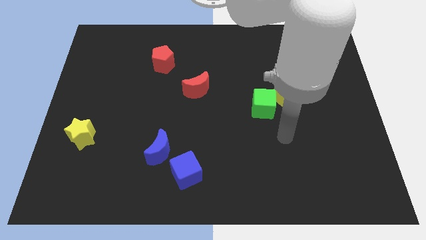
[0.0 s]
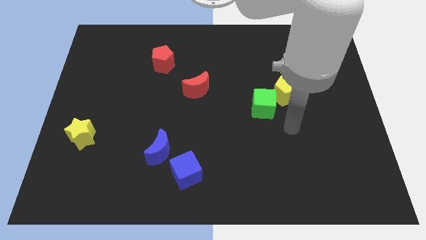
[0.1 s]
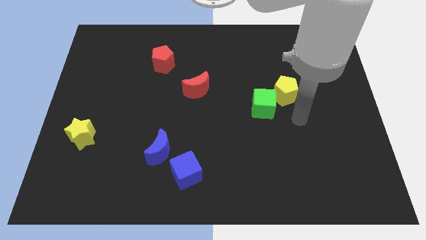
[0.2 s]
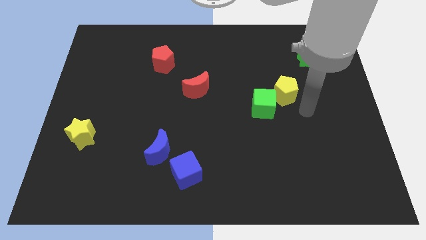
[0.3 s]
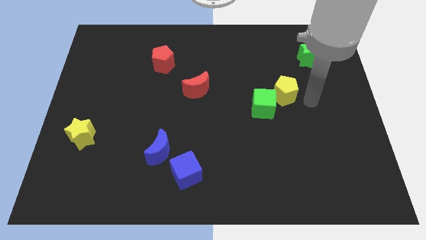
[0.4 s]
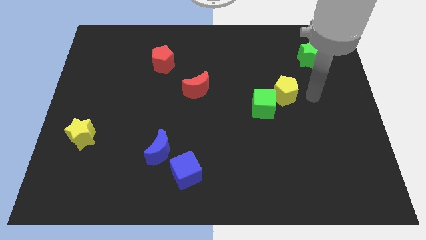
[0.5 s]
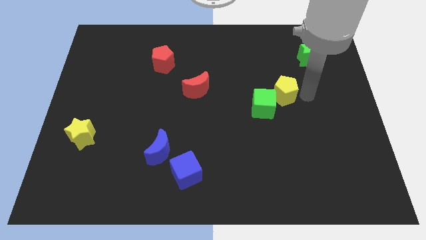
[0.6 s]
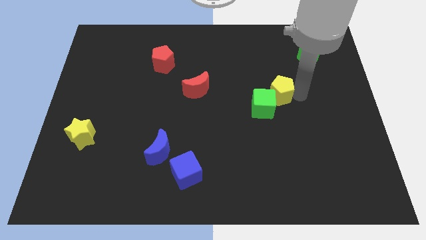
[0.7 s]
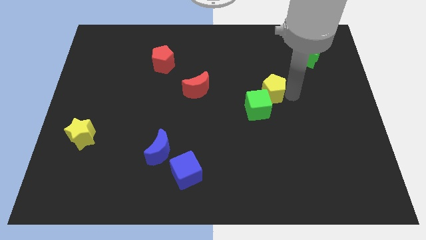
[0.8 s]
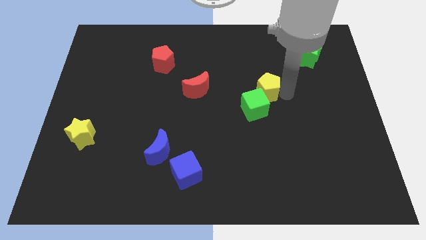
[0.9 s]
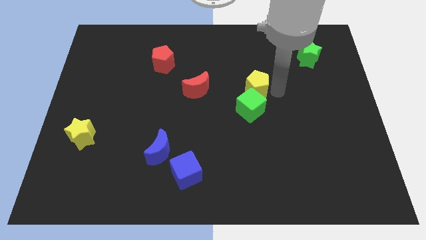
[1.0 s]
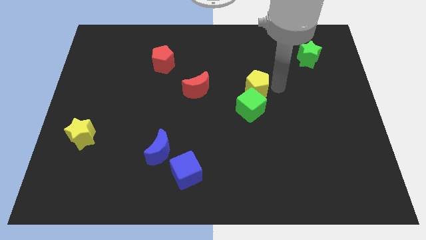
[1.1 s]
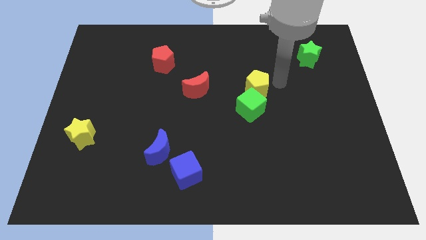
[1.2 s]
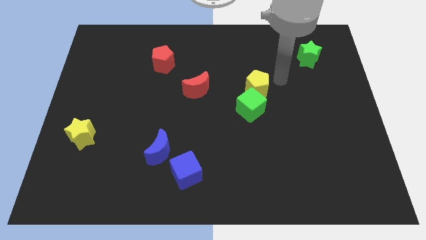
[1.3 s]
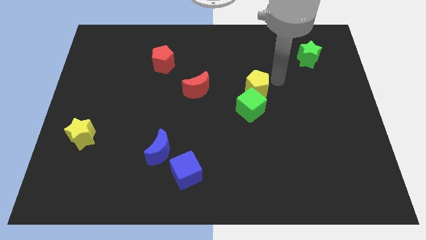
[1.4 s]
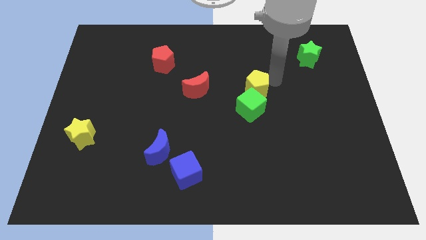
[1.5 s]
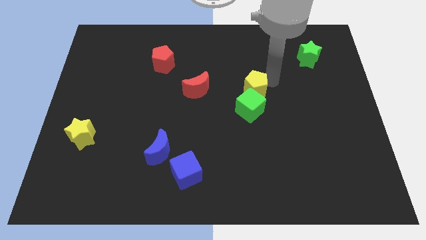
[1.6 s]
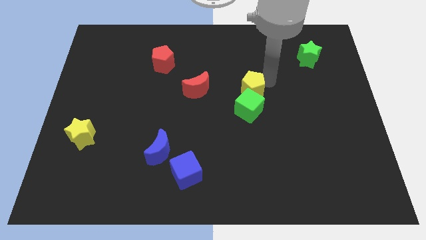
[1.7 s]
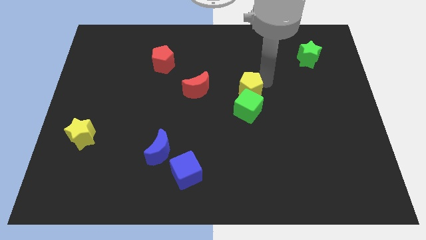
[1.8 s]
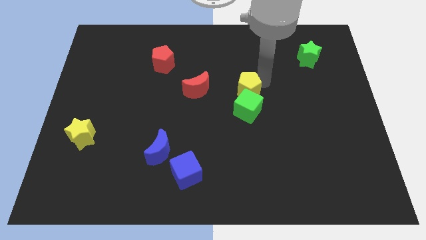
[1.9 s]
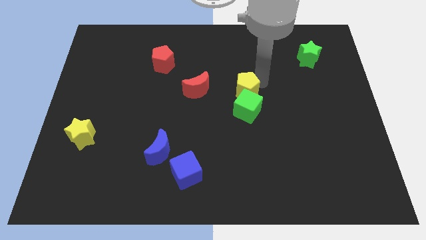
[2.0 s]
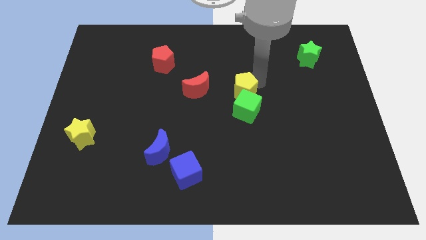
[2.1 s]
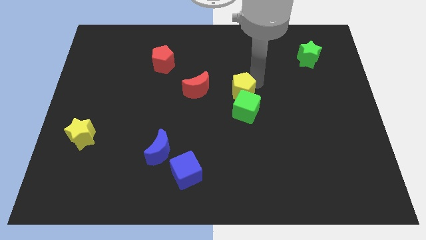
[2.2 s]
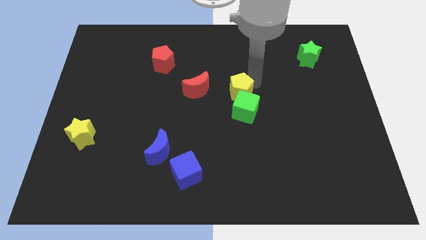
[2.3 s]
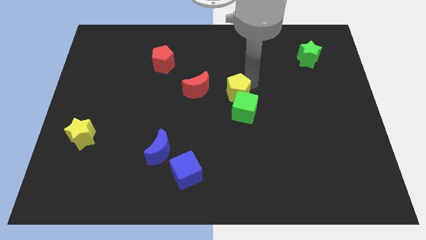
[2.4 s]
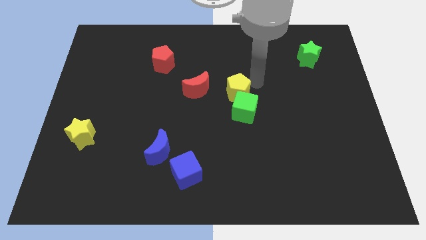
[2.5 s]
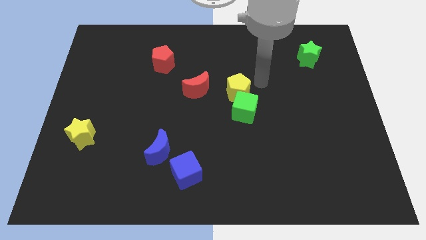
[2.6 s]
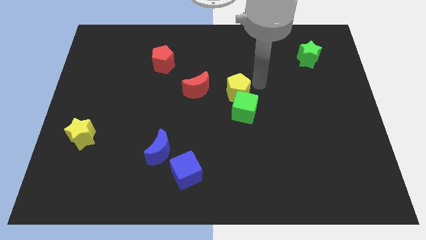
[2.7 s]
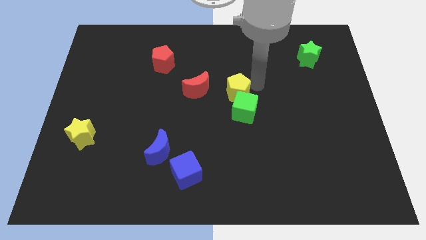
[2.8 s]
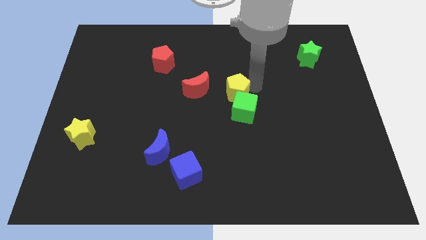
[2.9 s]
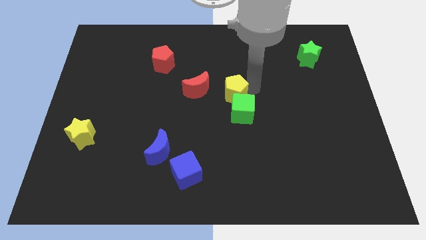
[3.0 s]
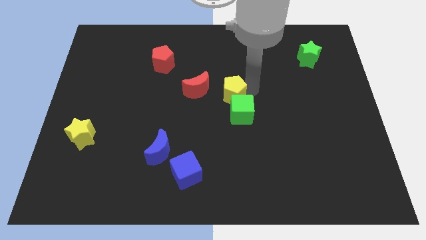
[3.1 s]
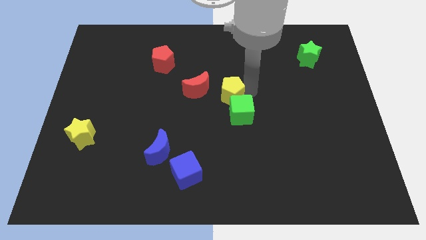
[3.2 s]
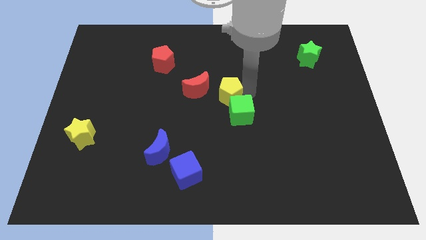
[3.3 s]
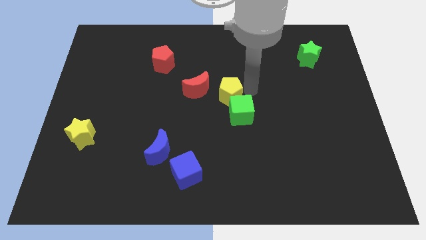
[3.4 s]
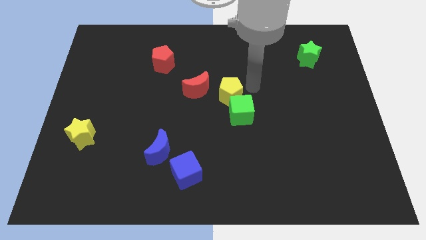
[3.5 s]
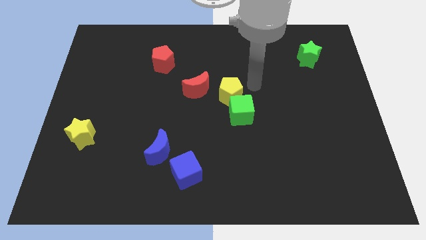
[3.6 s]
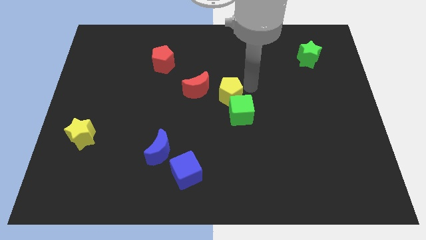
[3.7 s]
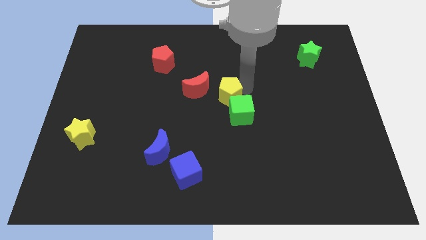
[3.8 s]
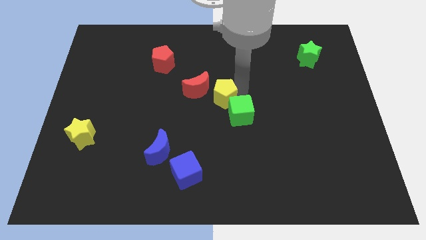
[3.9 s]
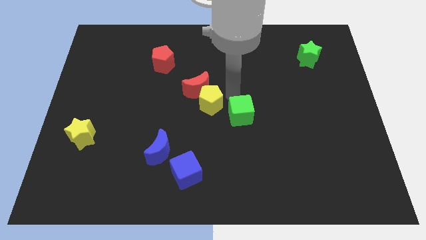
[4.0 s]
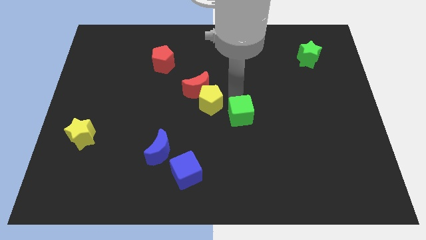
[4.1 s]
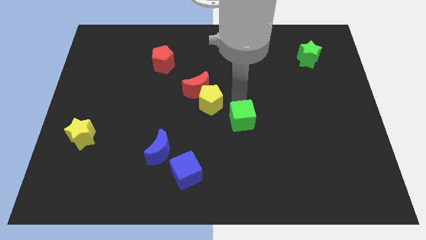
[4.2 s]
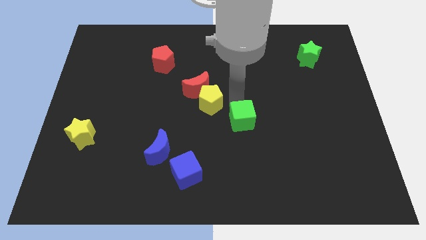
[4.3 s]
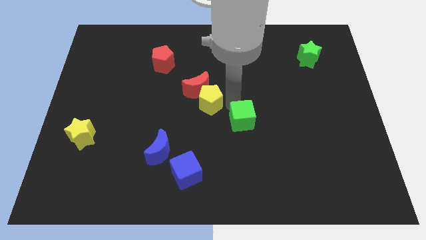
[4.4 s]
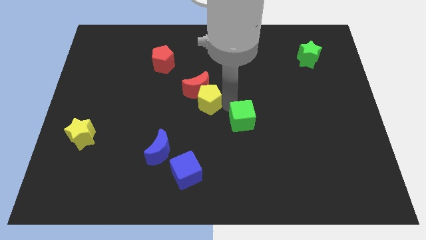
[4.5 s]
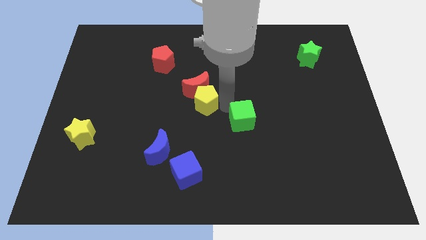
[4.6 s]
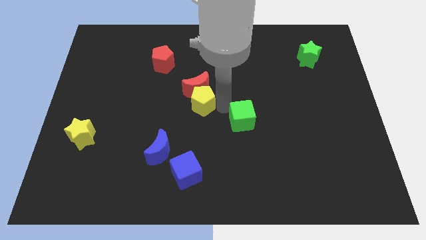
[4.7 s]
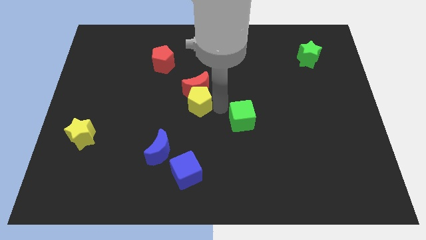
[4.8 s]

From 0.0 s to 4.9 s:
move the yellow pentagon left

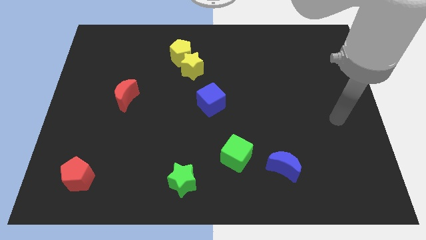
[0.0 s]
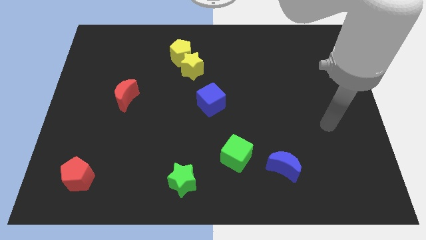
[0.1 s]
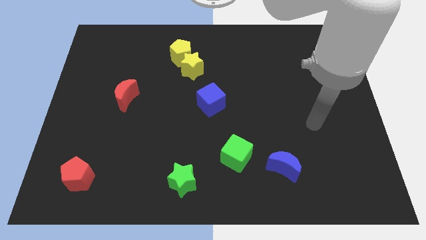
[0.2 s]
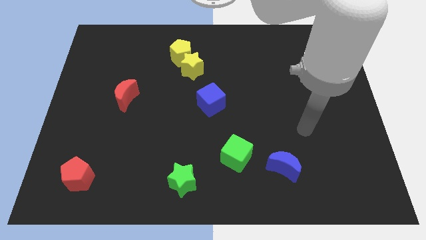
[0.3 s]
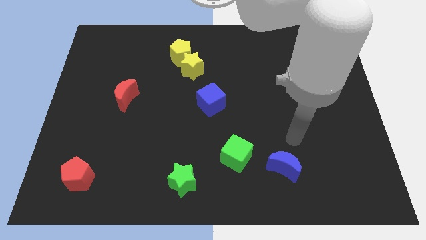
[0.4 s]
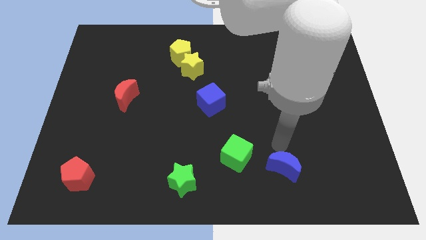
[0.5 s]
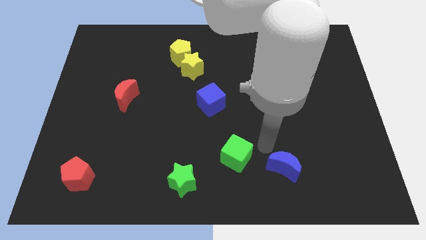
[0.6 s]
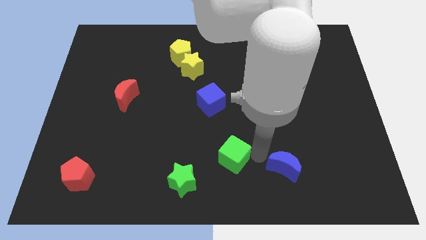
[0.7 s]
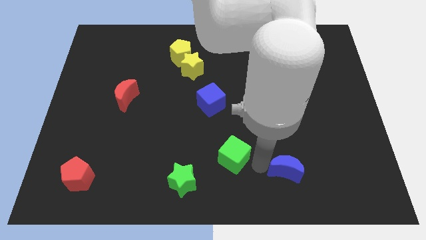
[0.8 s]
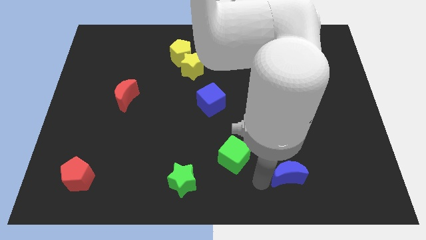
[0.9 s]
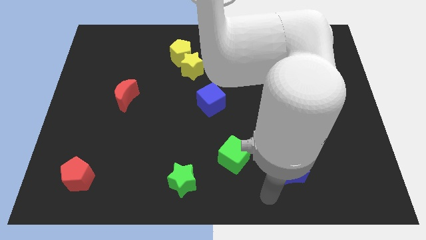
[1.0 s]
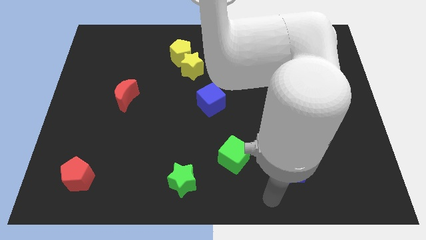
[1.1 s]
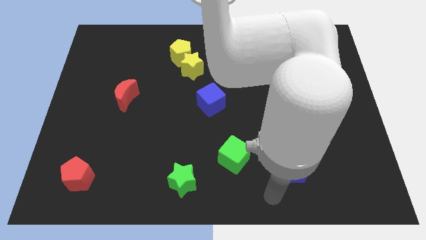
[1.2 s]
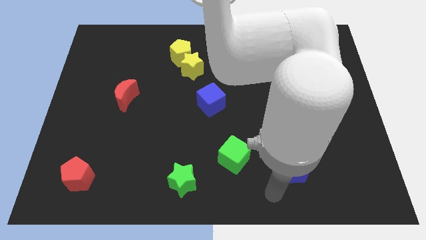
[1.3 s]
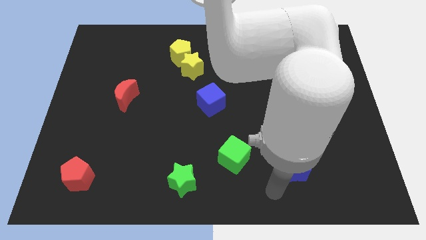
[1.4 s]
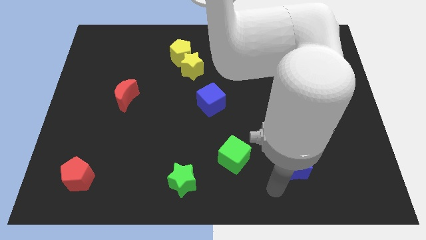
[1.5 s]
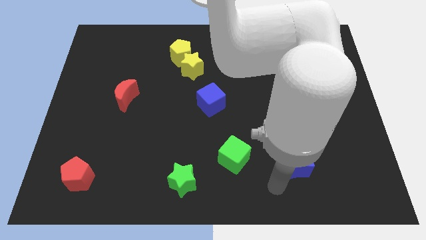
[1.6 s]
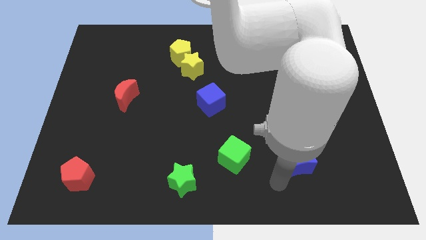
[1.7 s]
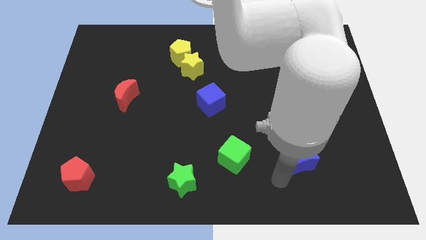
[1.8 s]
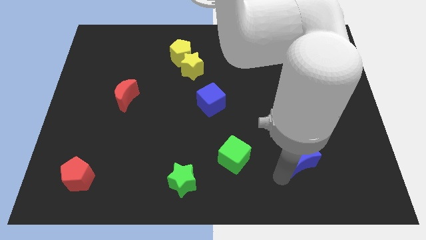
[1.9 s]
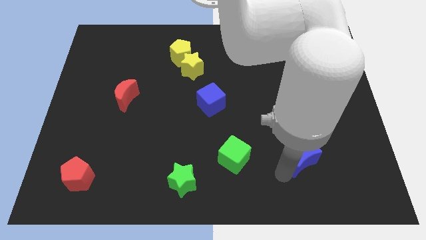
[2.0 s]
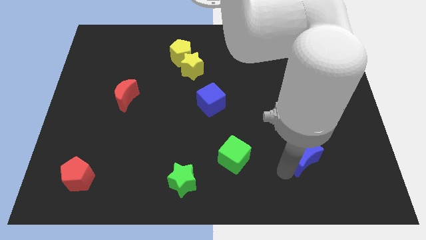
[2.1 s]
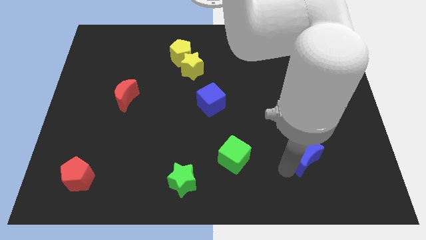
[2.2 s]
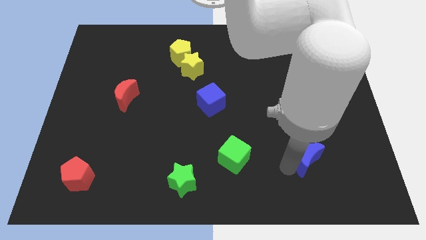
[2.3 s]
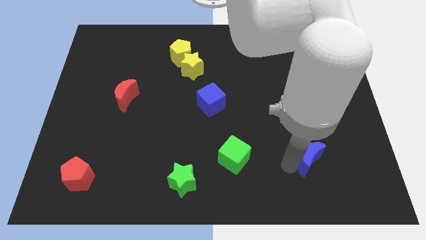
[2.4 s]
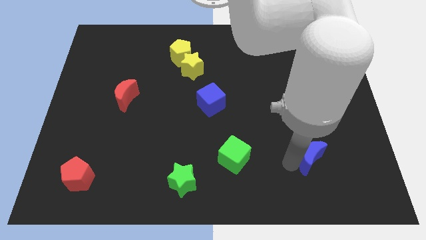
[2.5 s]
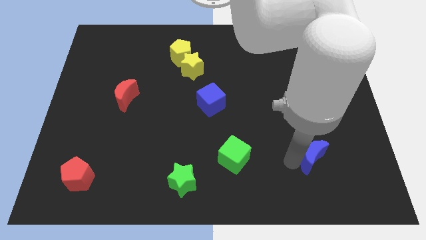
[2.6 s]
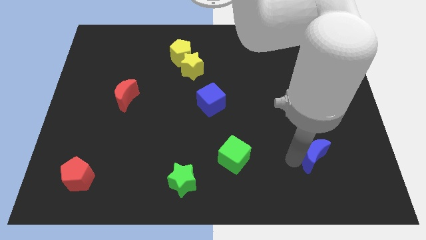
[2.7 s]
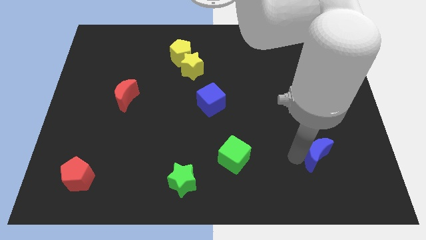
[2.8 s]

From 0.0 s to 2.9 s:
slightly slide the blue moon diagonally up and to the right

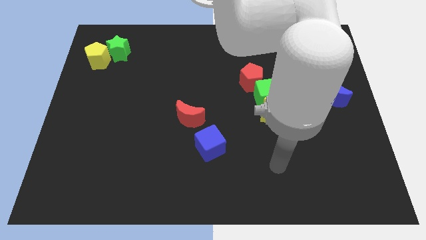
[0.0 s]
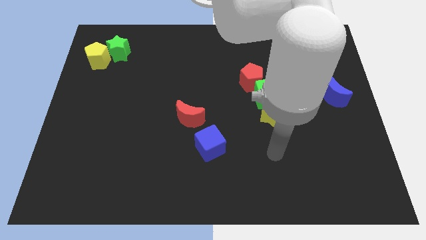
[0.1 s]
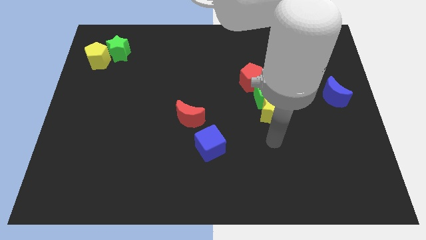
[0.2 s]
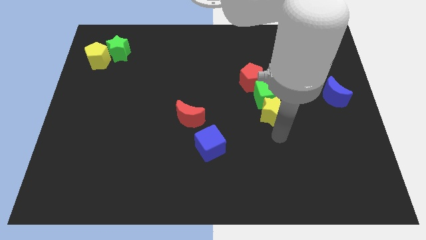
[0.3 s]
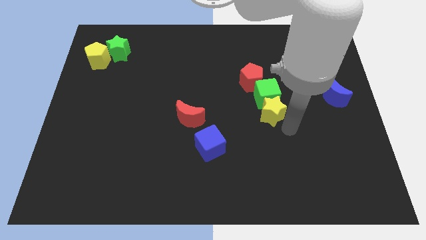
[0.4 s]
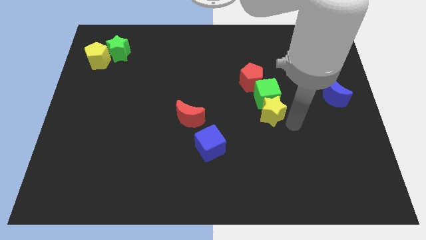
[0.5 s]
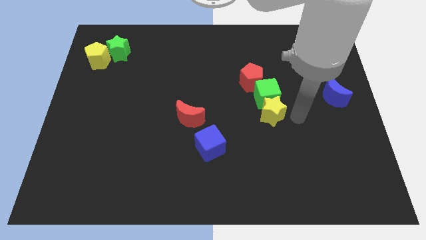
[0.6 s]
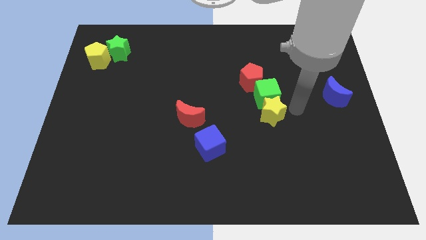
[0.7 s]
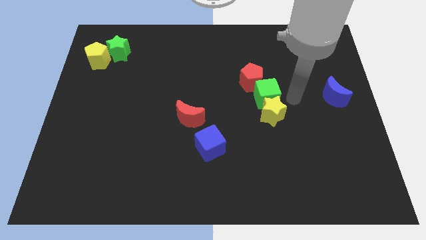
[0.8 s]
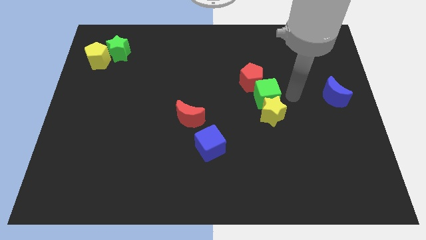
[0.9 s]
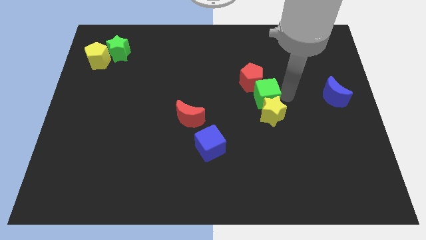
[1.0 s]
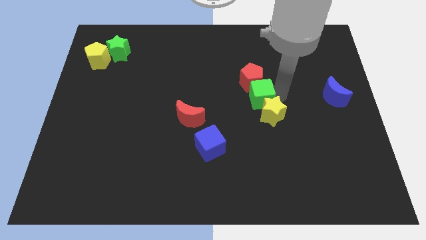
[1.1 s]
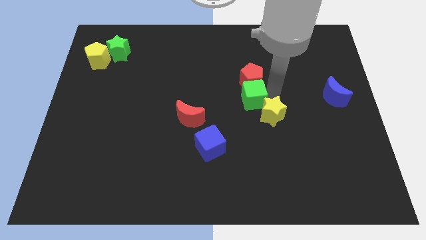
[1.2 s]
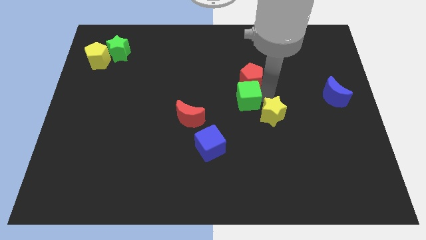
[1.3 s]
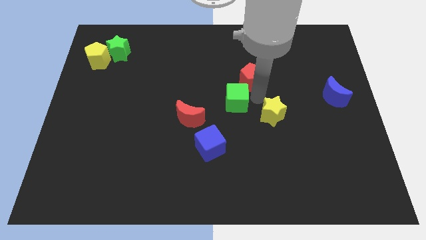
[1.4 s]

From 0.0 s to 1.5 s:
move the green cube slightly left
